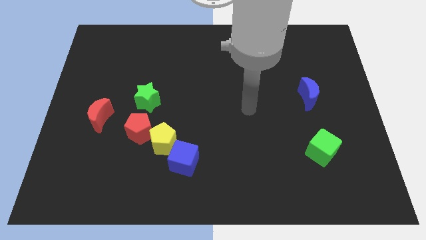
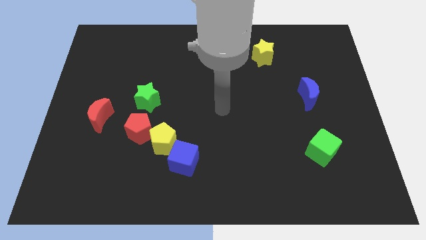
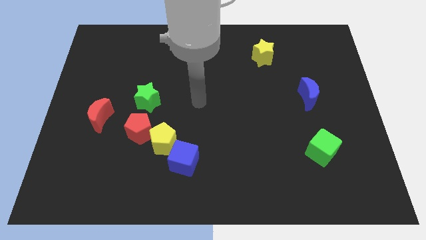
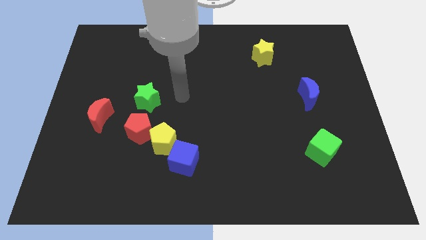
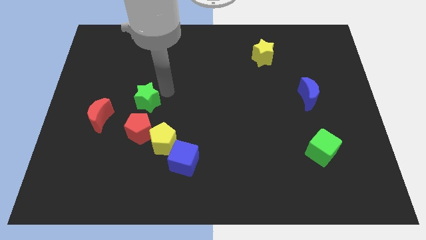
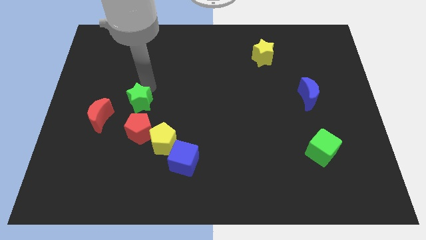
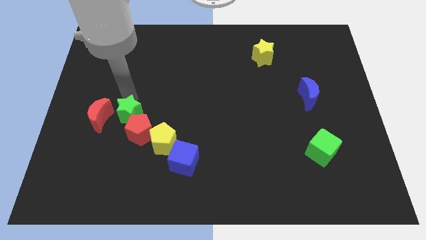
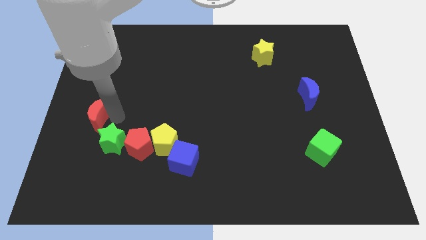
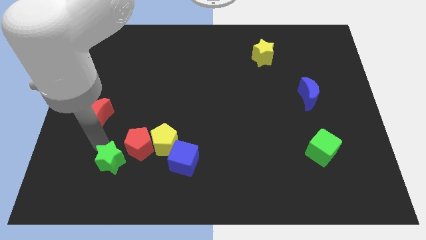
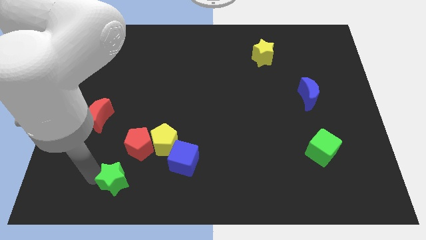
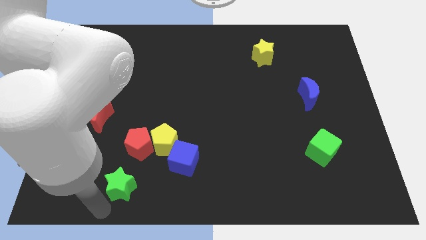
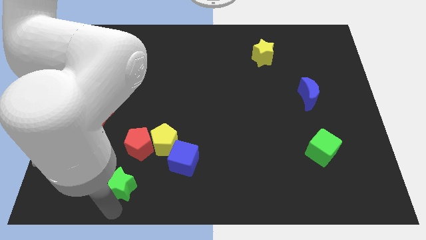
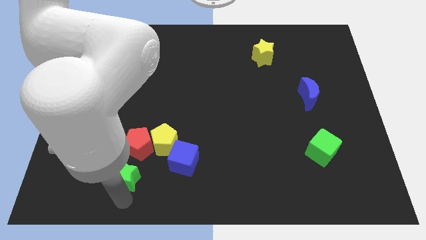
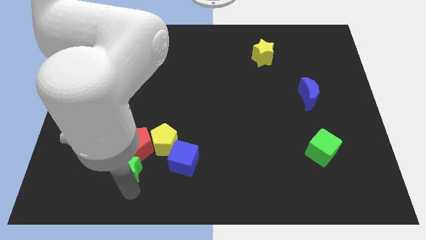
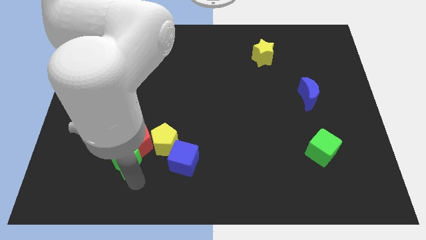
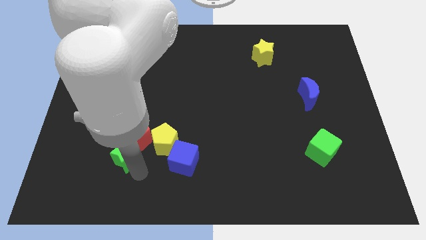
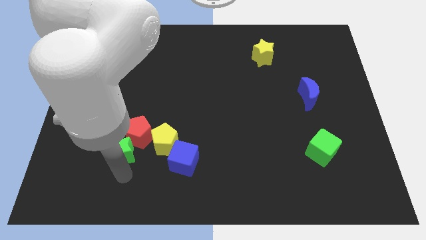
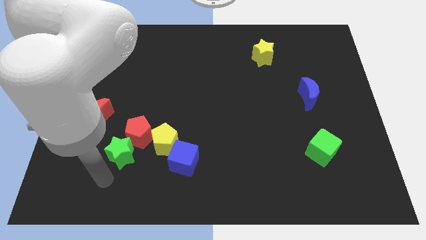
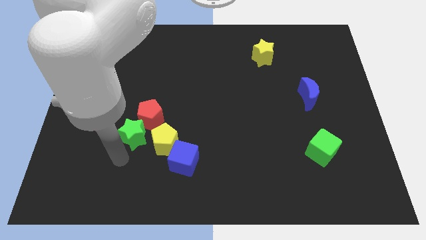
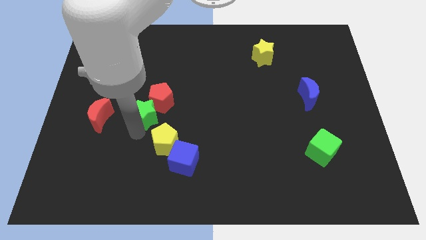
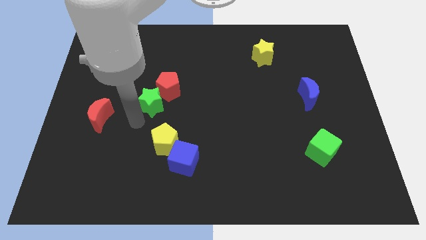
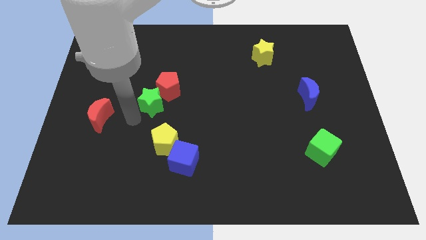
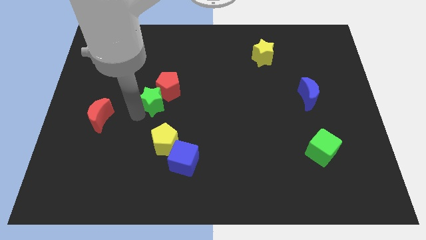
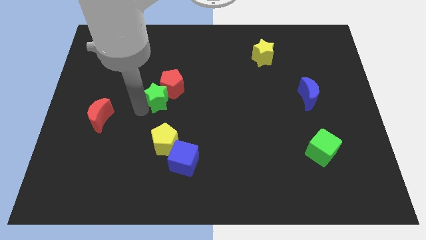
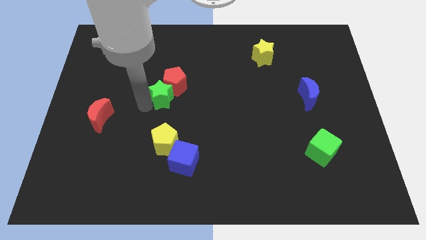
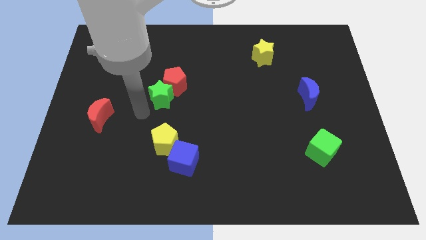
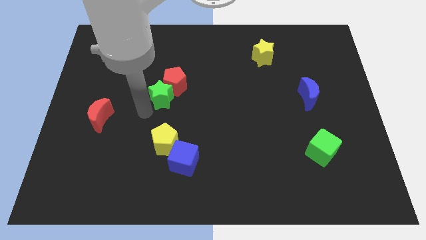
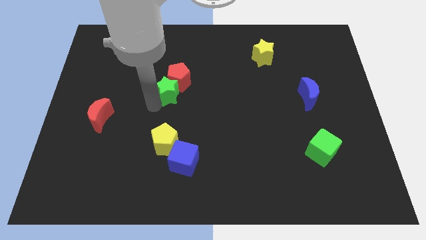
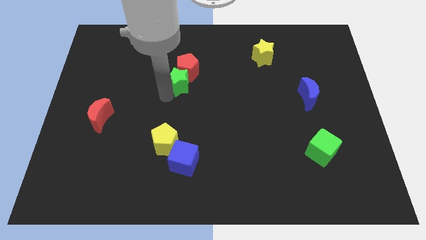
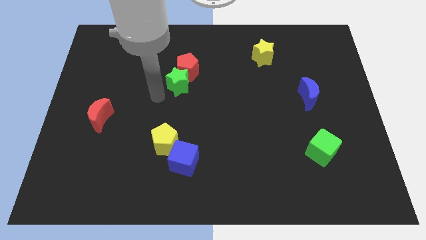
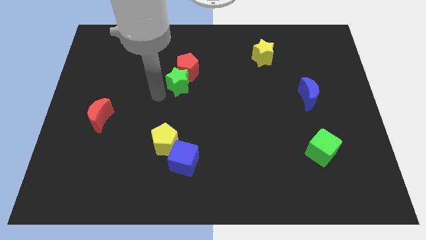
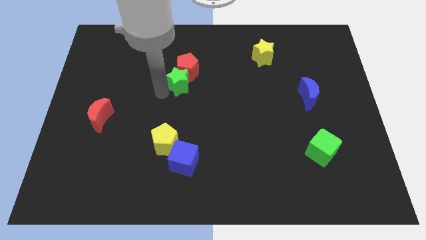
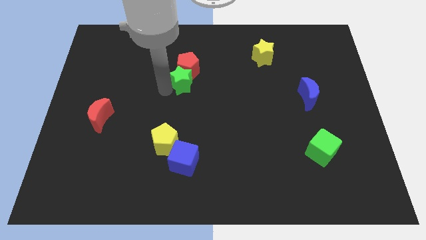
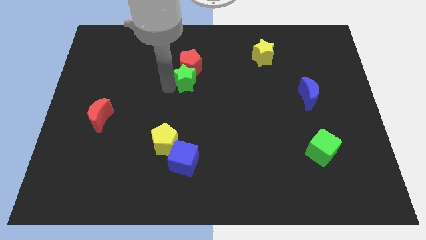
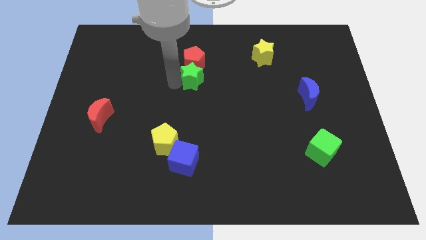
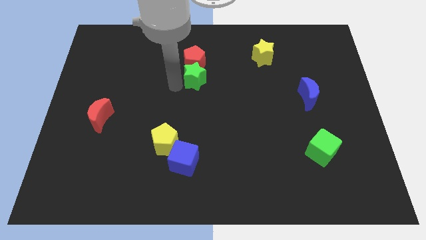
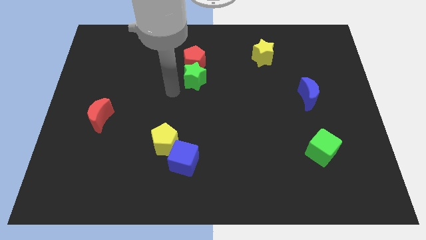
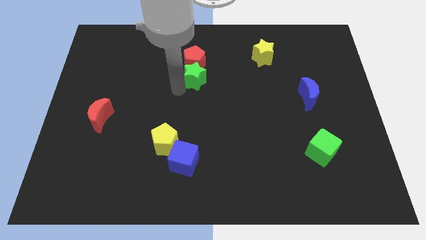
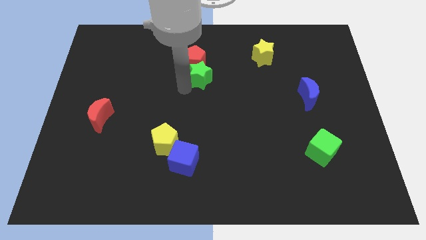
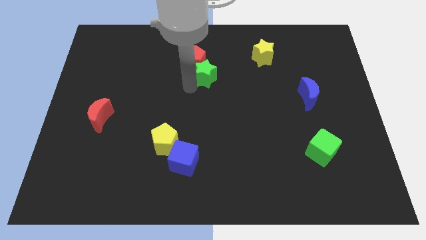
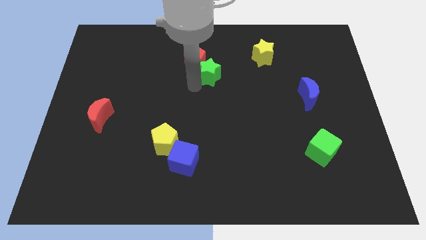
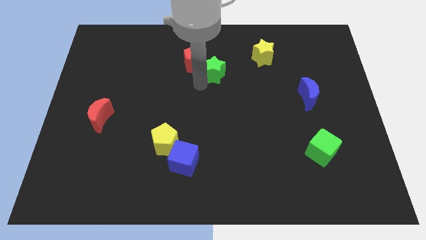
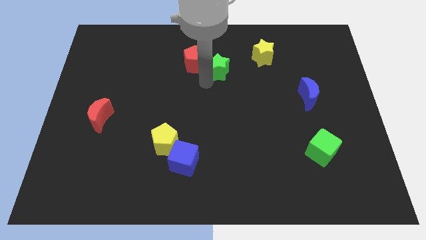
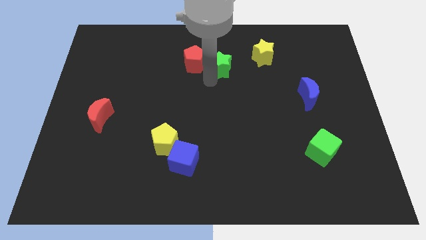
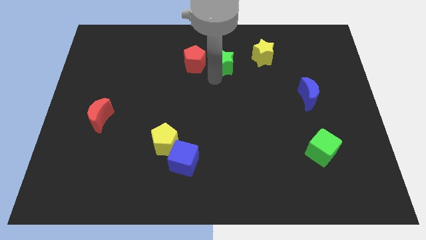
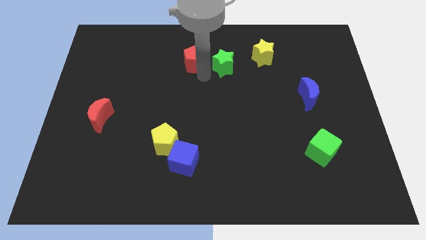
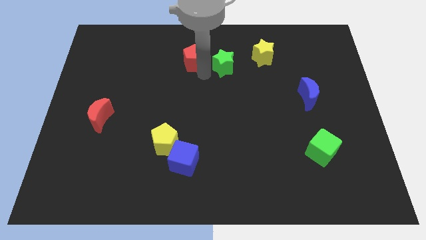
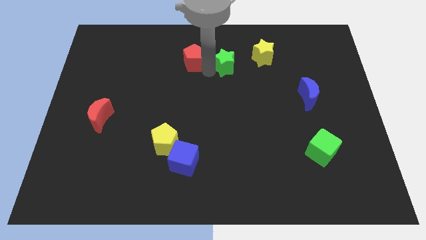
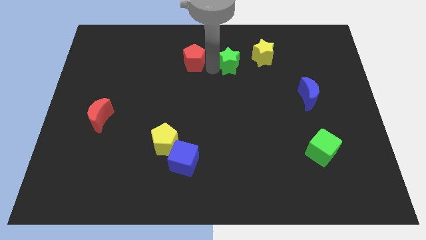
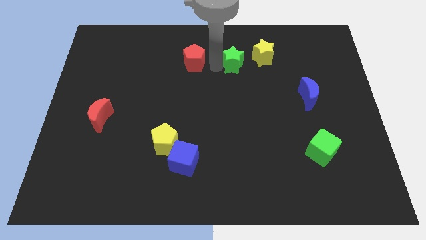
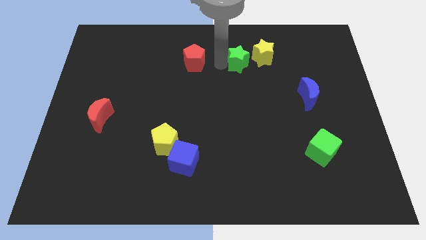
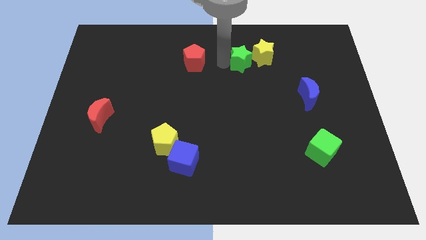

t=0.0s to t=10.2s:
slide the green star close to the yellow star

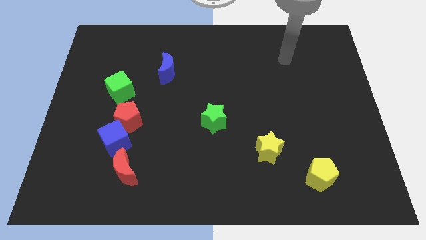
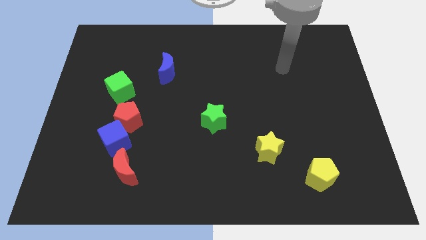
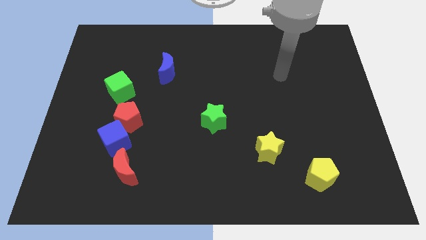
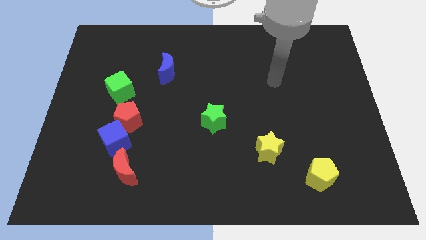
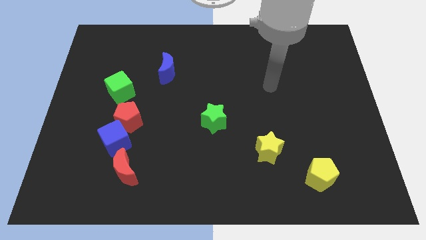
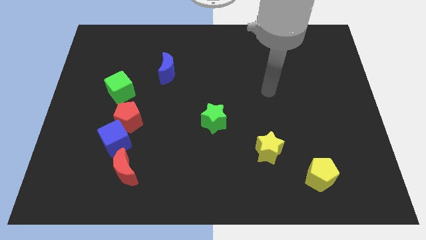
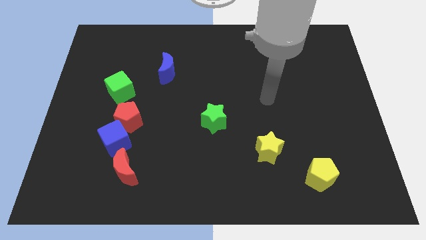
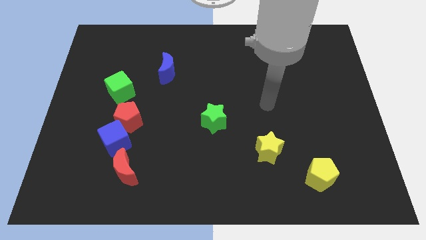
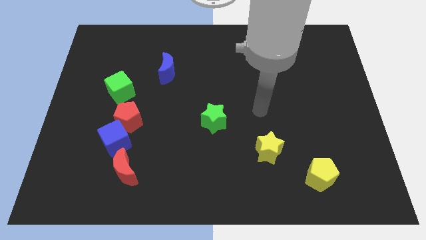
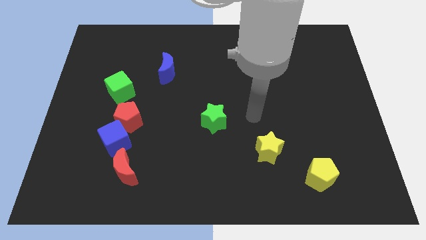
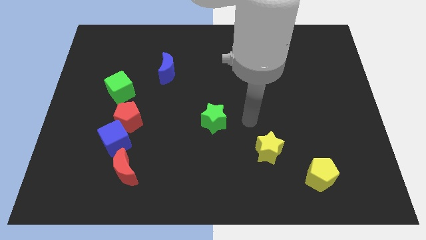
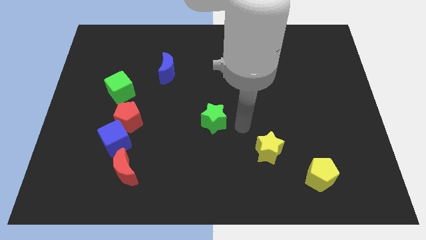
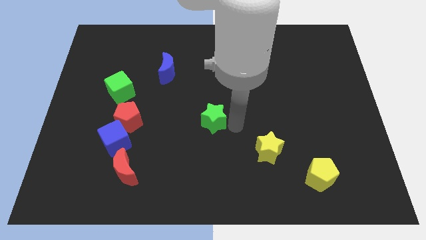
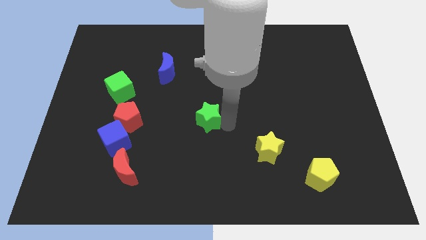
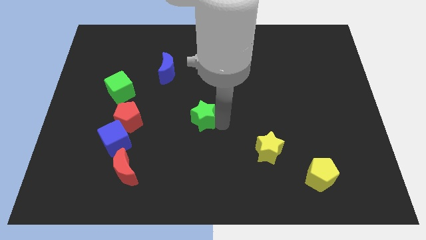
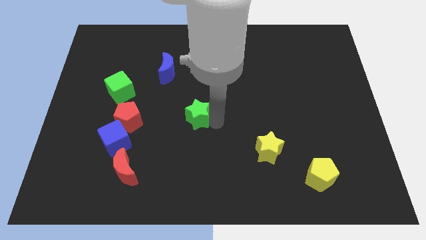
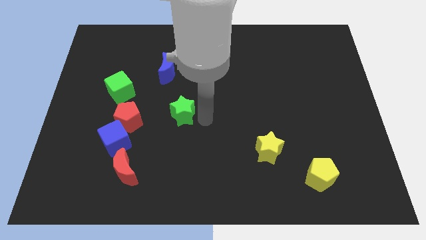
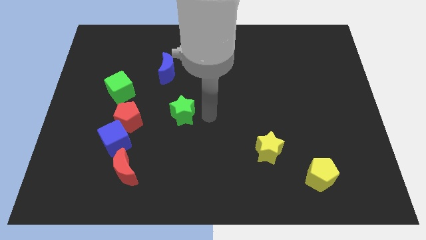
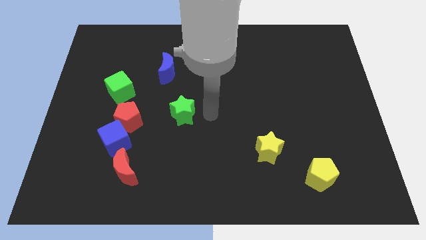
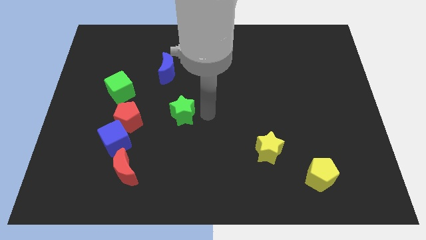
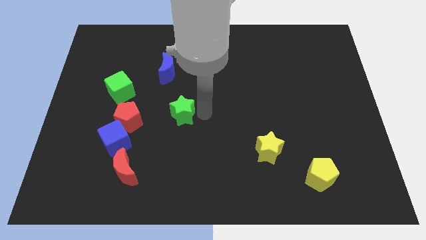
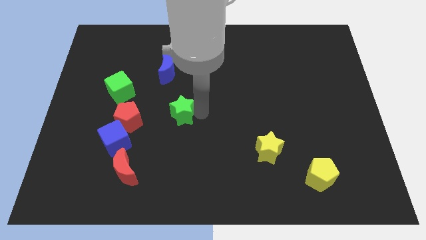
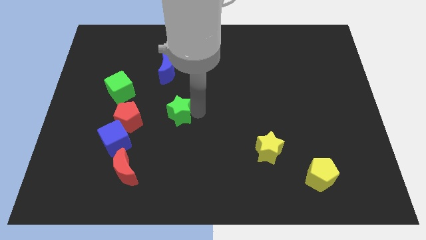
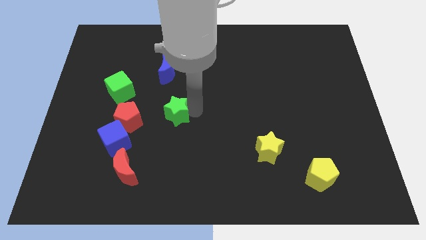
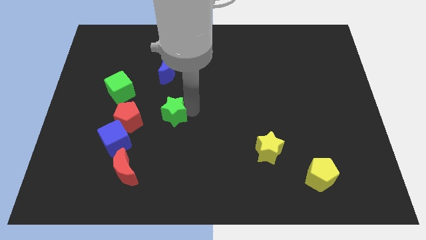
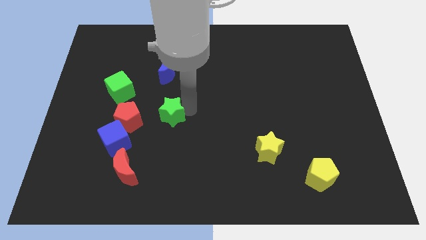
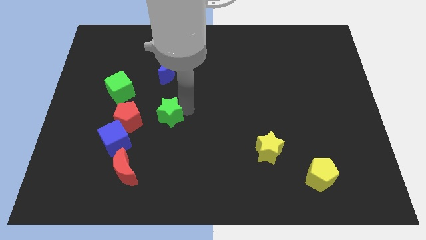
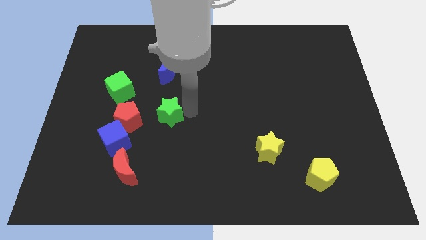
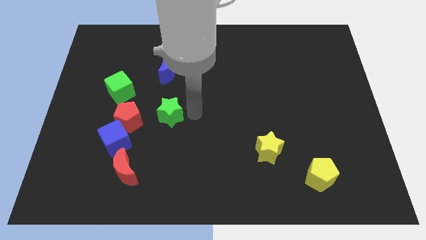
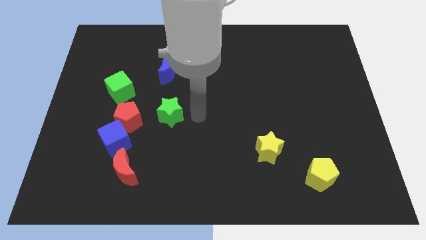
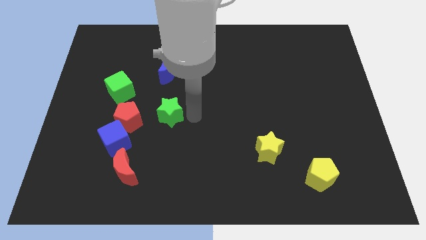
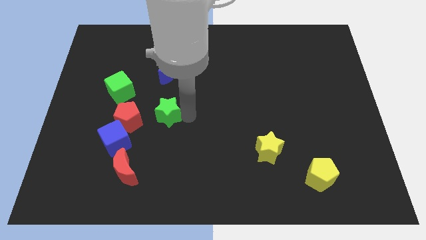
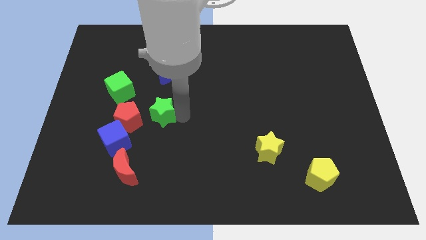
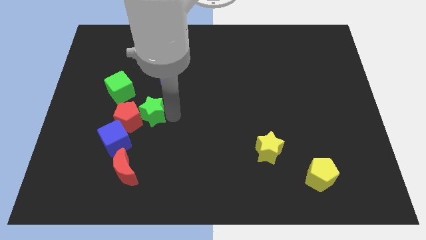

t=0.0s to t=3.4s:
slide the green star to the red pentagon
